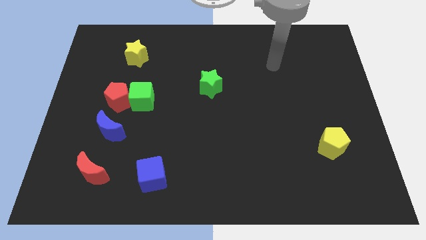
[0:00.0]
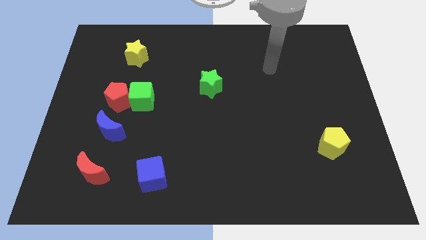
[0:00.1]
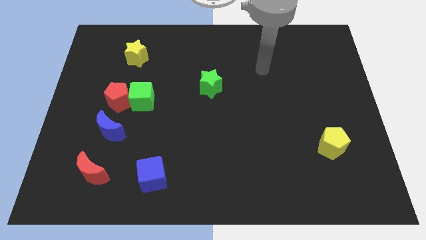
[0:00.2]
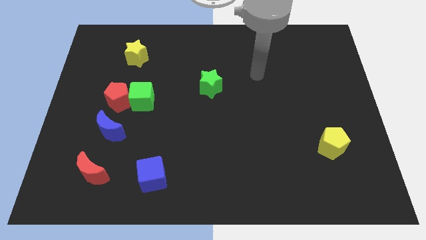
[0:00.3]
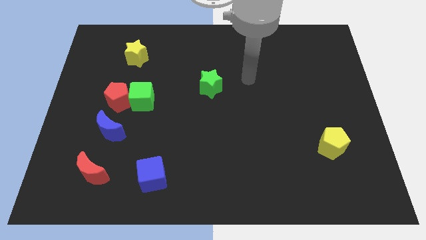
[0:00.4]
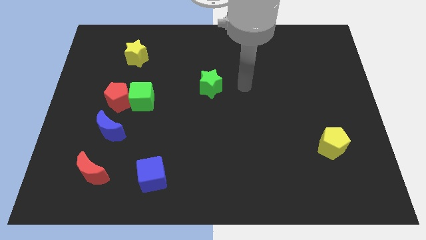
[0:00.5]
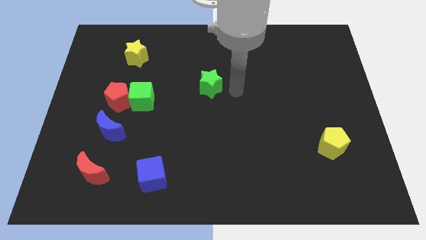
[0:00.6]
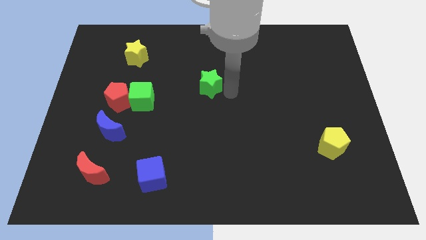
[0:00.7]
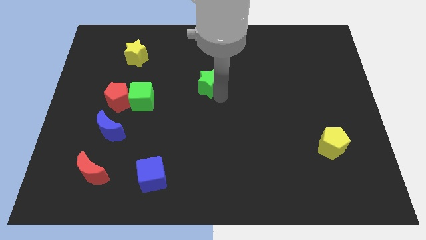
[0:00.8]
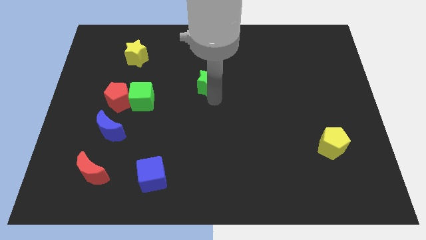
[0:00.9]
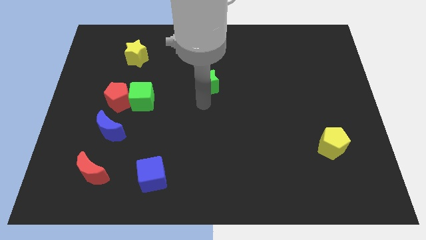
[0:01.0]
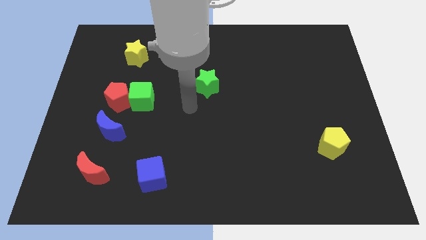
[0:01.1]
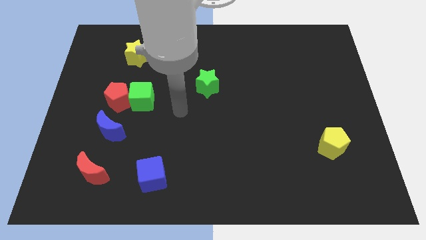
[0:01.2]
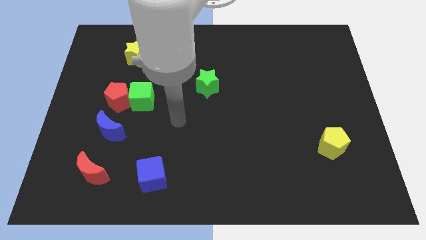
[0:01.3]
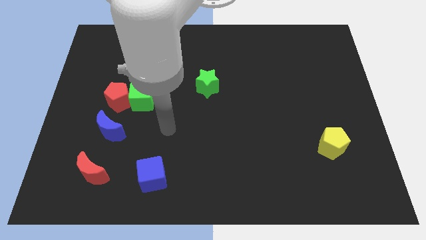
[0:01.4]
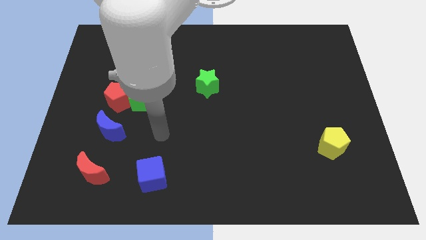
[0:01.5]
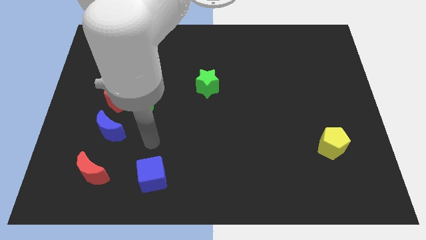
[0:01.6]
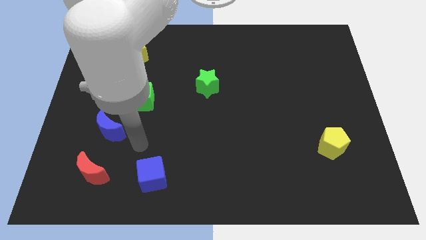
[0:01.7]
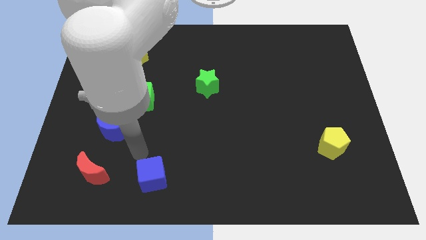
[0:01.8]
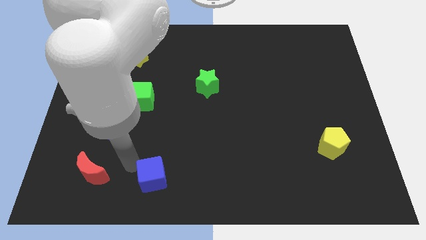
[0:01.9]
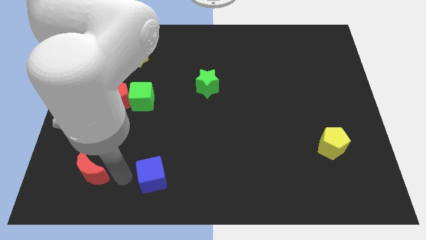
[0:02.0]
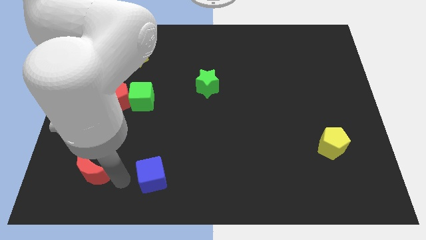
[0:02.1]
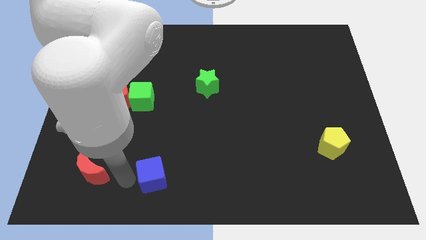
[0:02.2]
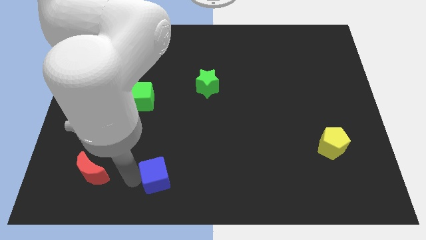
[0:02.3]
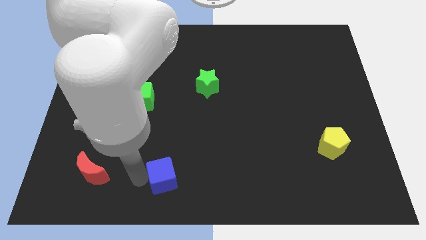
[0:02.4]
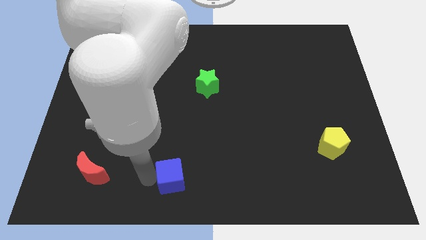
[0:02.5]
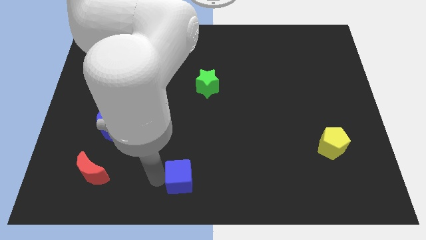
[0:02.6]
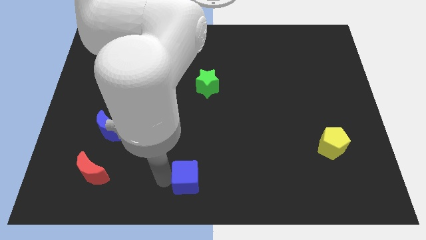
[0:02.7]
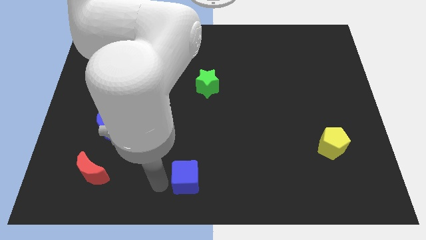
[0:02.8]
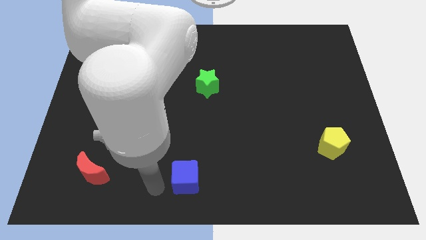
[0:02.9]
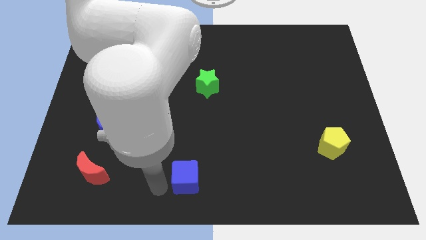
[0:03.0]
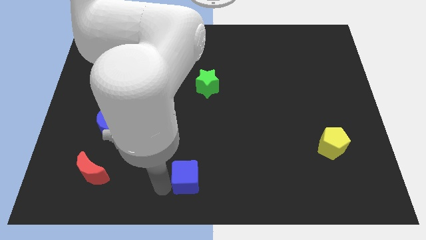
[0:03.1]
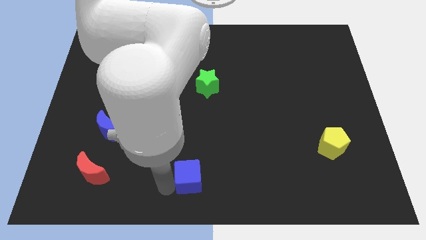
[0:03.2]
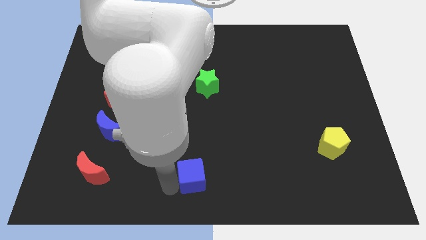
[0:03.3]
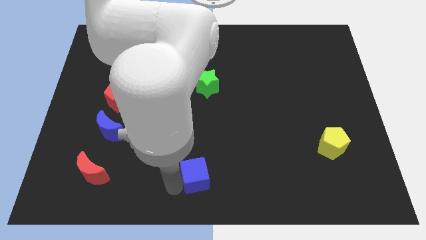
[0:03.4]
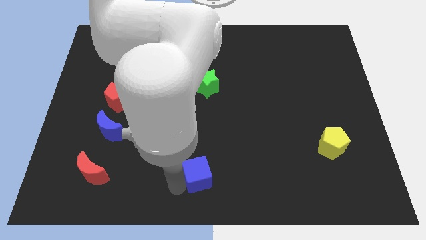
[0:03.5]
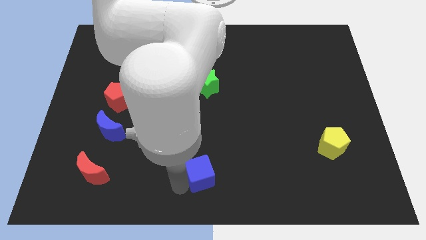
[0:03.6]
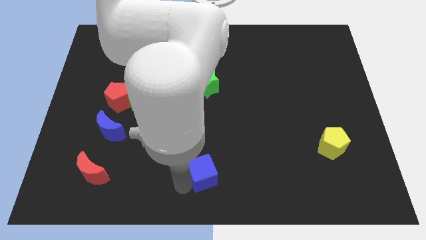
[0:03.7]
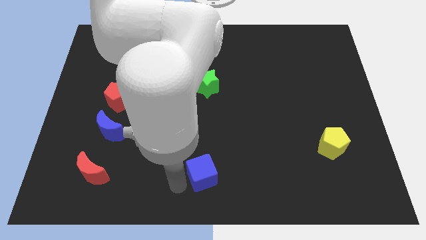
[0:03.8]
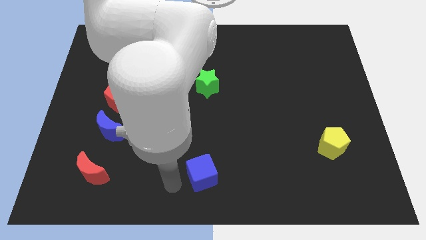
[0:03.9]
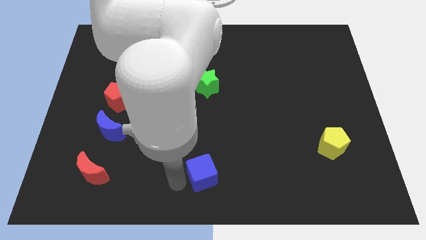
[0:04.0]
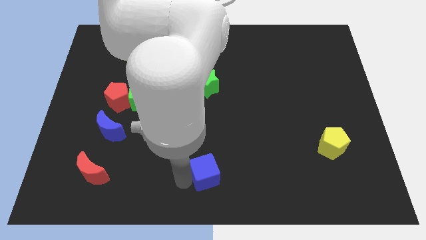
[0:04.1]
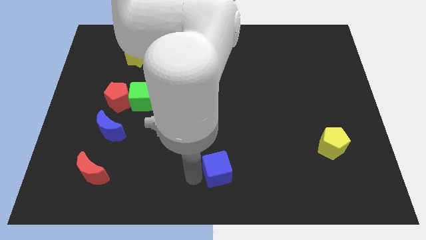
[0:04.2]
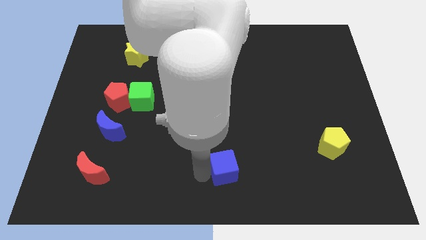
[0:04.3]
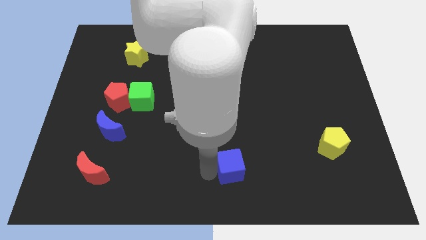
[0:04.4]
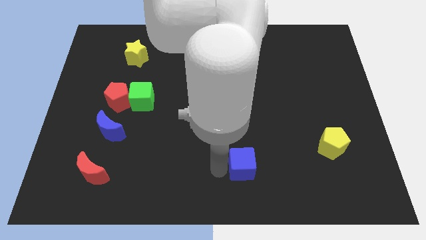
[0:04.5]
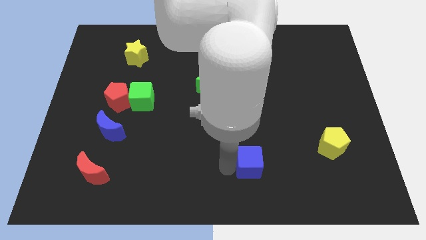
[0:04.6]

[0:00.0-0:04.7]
slide the blue cube to the right

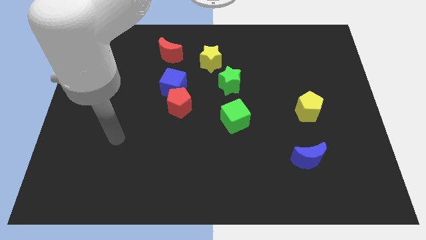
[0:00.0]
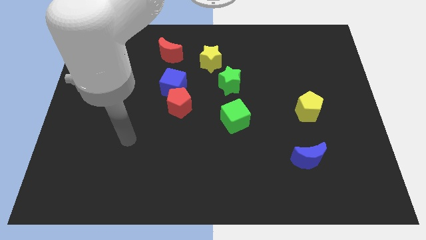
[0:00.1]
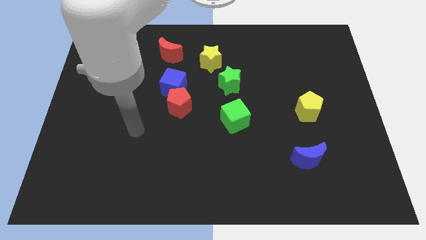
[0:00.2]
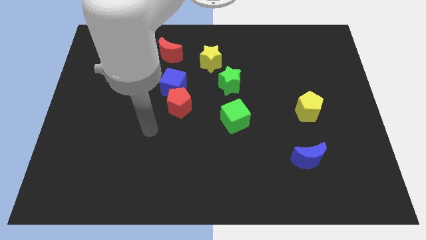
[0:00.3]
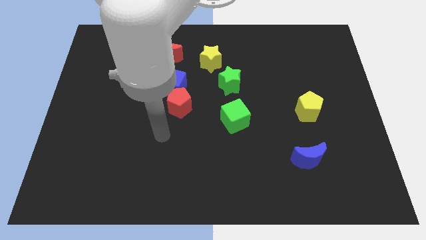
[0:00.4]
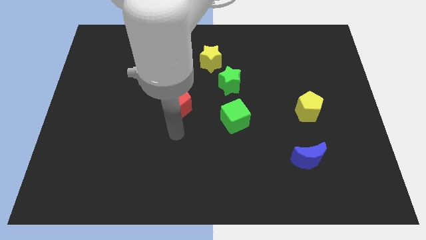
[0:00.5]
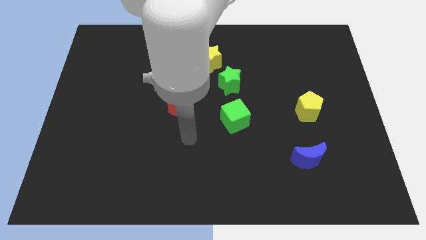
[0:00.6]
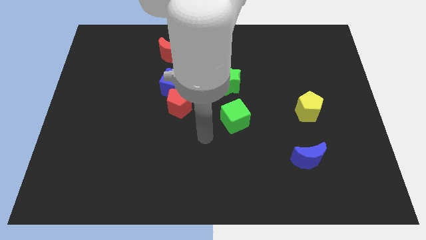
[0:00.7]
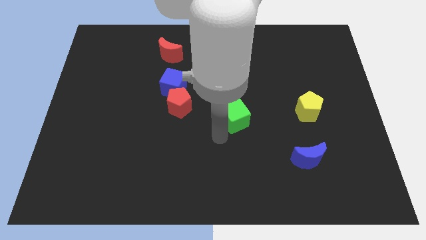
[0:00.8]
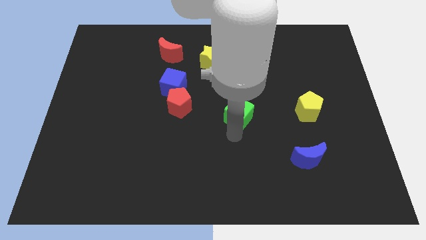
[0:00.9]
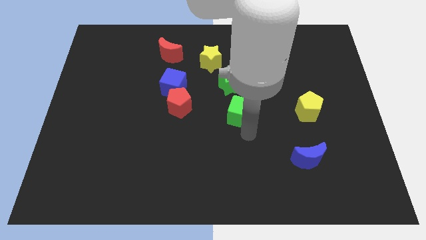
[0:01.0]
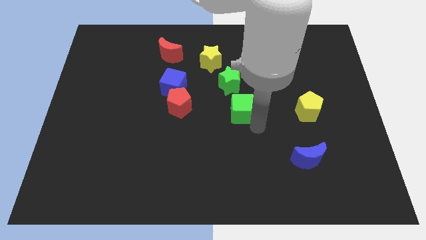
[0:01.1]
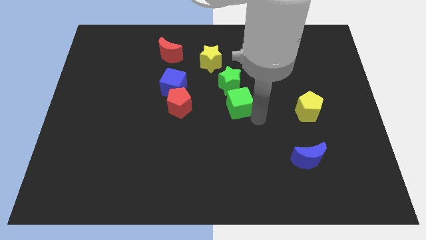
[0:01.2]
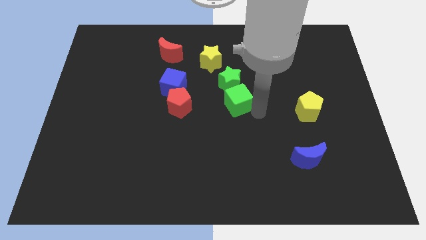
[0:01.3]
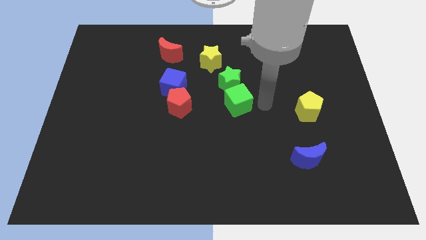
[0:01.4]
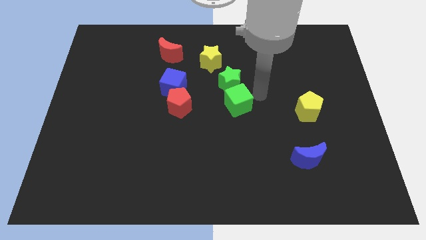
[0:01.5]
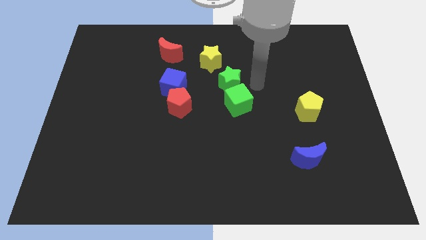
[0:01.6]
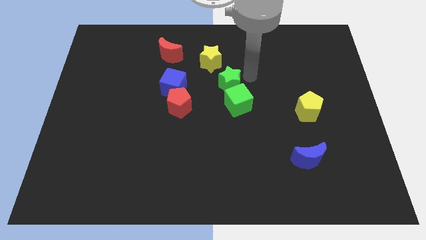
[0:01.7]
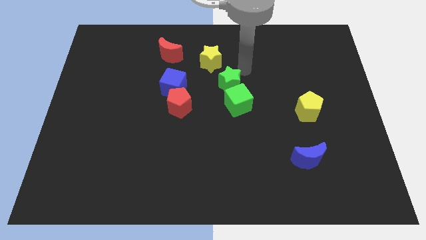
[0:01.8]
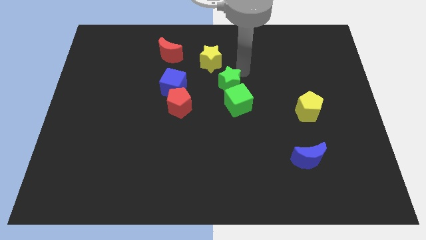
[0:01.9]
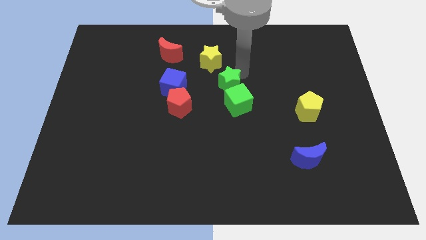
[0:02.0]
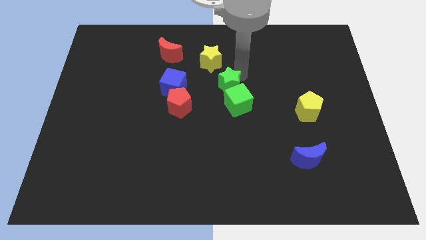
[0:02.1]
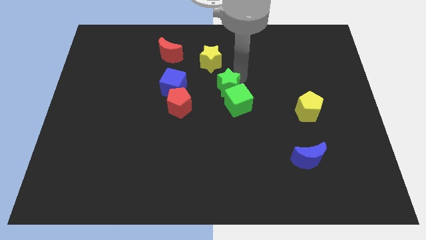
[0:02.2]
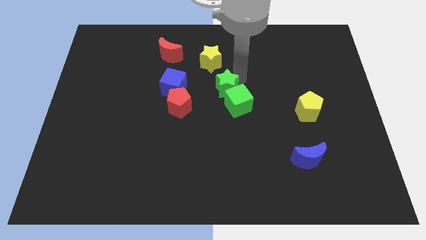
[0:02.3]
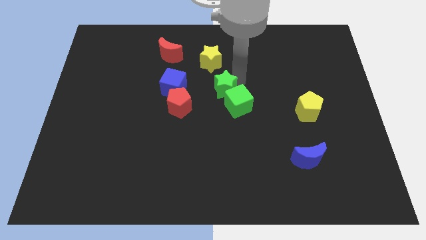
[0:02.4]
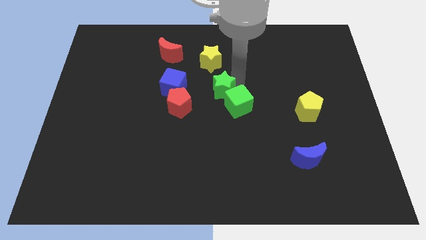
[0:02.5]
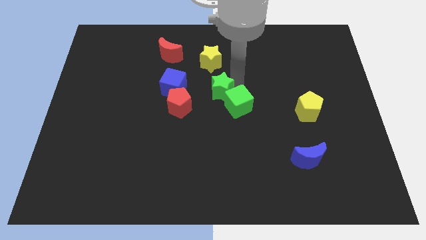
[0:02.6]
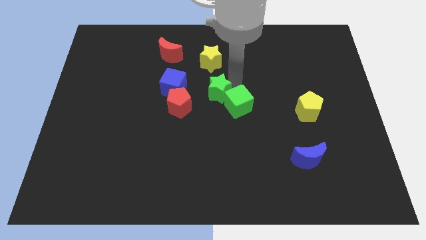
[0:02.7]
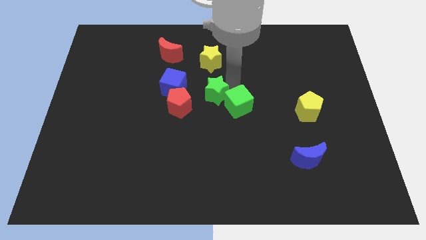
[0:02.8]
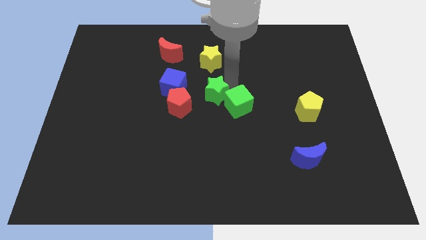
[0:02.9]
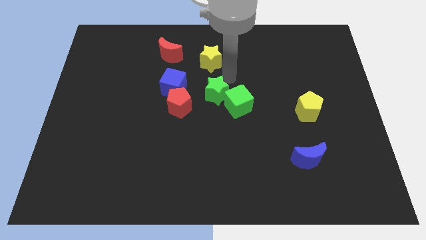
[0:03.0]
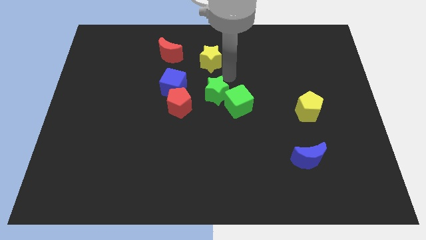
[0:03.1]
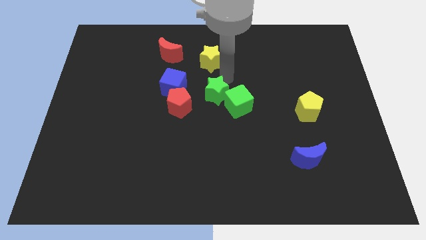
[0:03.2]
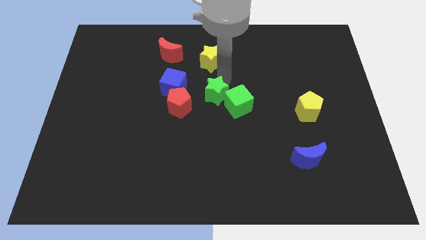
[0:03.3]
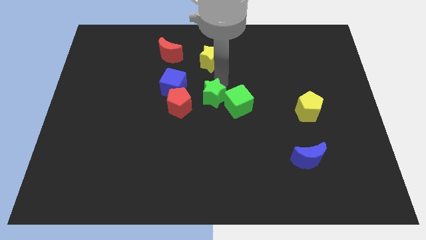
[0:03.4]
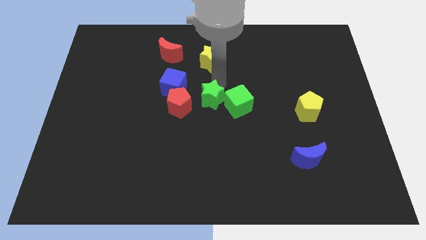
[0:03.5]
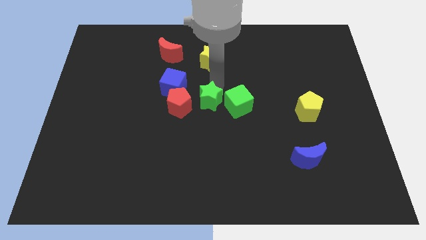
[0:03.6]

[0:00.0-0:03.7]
push the green star a little bit diagonally down and left
